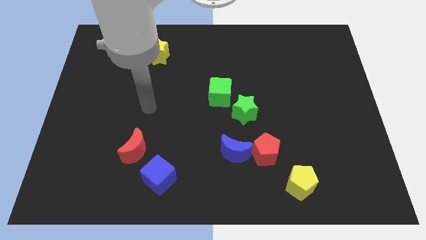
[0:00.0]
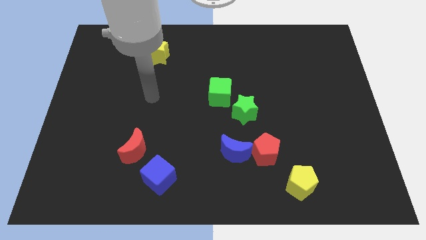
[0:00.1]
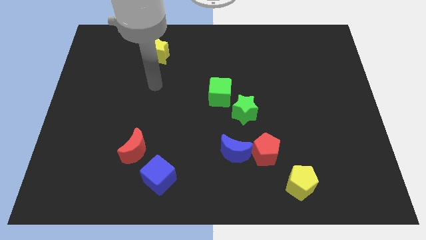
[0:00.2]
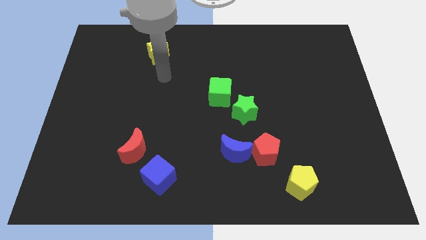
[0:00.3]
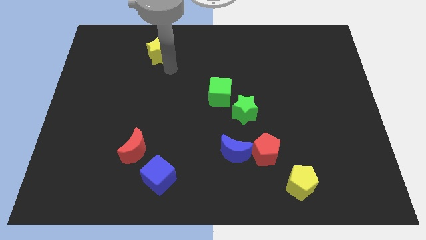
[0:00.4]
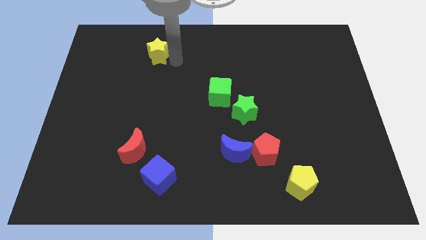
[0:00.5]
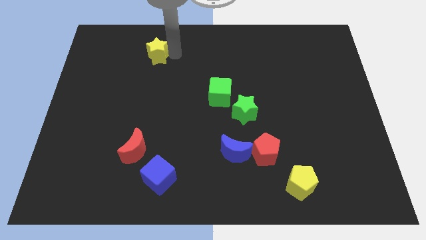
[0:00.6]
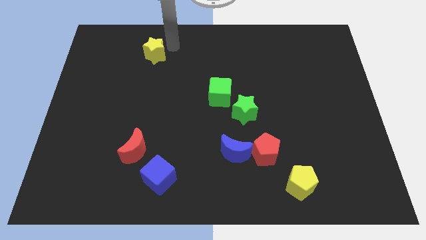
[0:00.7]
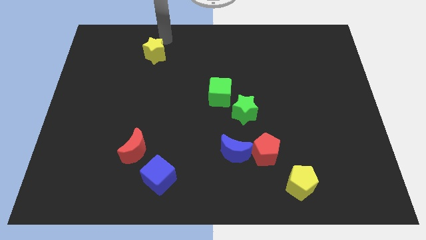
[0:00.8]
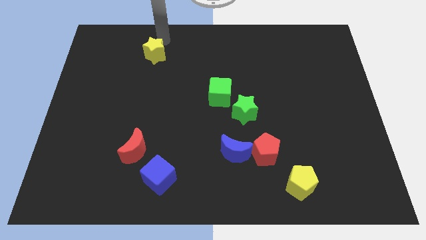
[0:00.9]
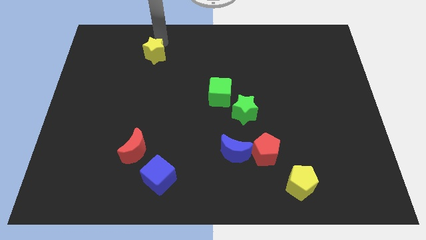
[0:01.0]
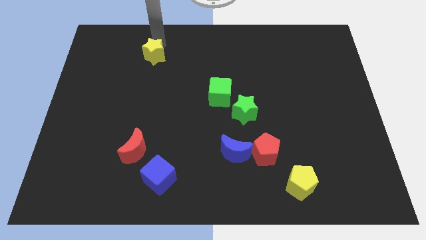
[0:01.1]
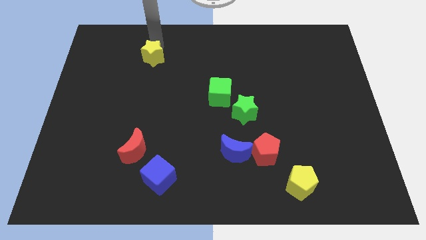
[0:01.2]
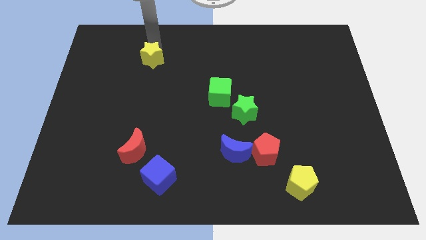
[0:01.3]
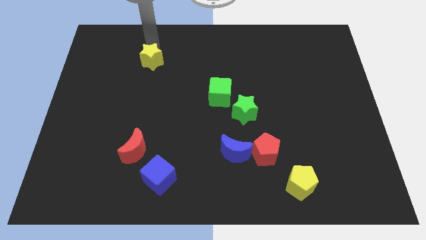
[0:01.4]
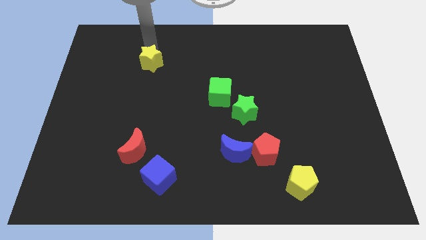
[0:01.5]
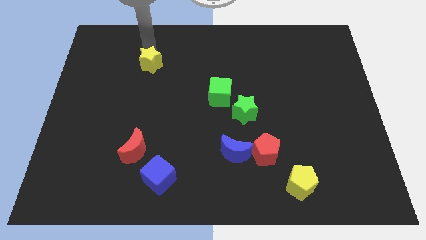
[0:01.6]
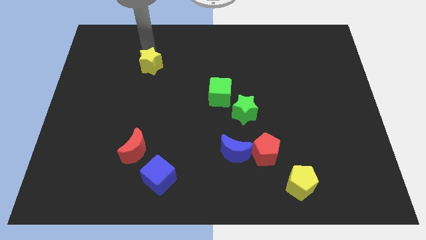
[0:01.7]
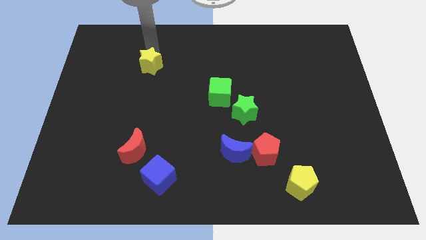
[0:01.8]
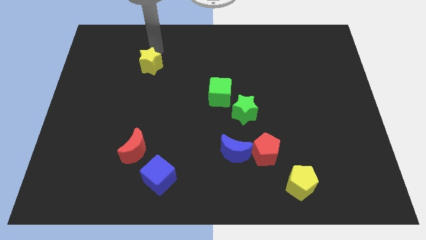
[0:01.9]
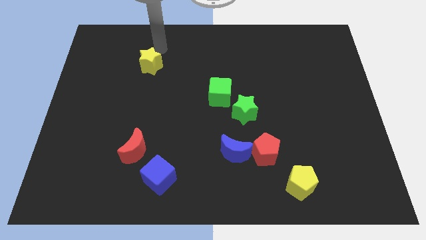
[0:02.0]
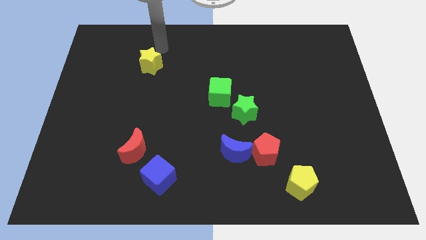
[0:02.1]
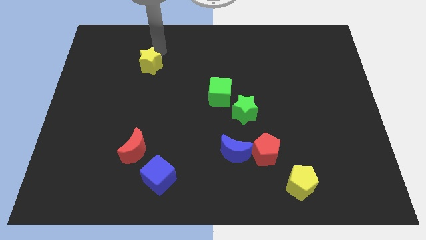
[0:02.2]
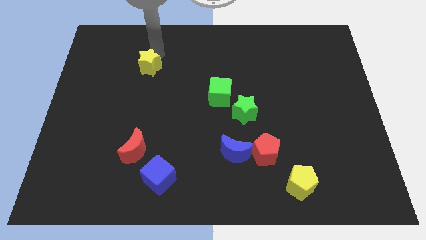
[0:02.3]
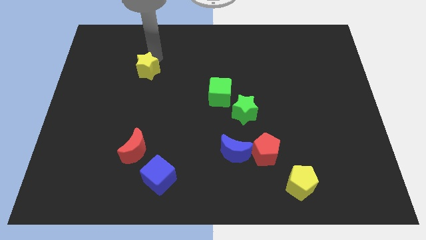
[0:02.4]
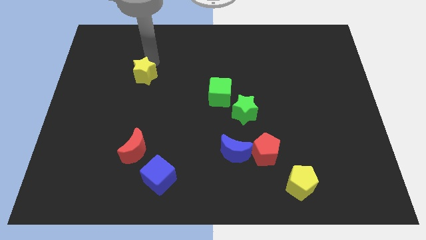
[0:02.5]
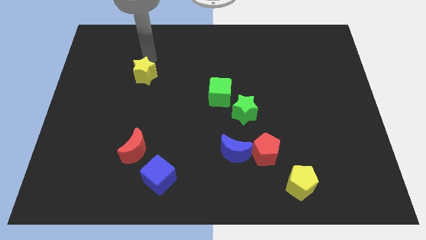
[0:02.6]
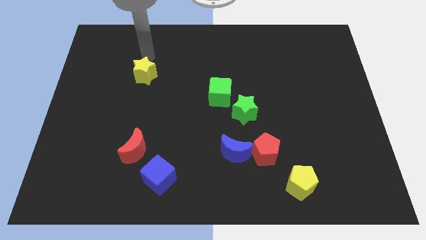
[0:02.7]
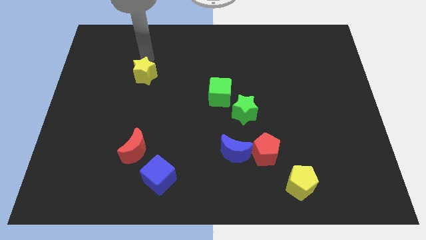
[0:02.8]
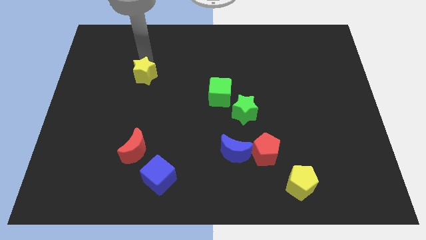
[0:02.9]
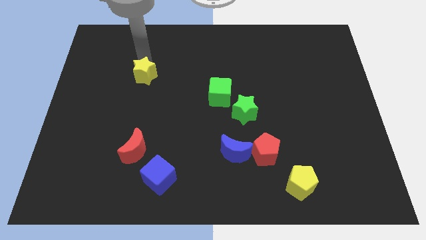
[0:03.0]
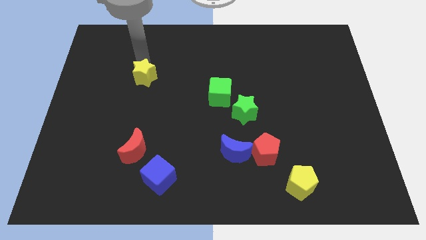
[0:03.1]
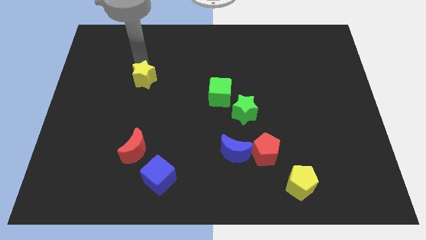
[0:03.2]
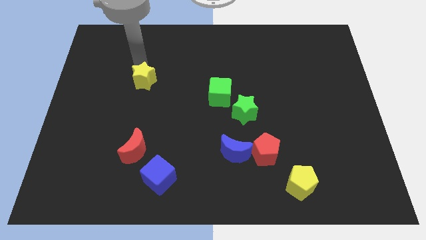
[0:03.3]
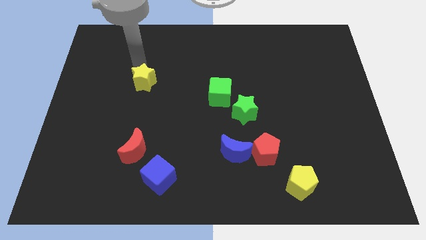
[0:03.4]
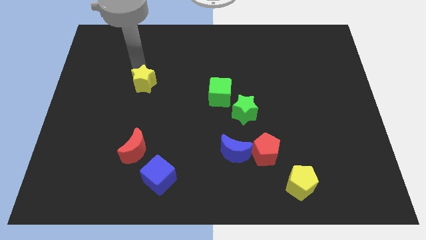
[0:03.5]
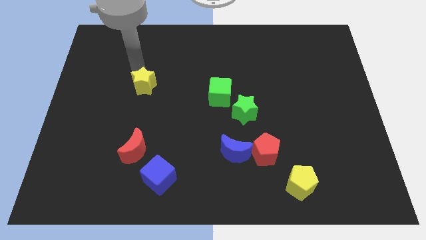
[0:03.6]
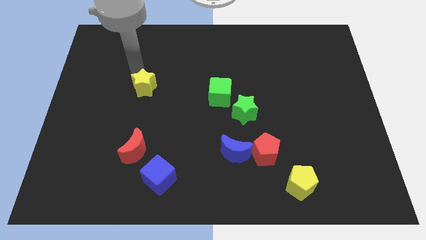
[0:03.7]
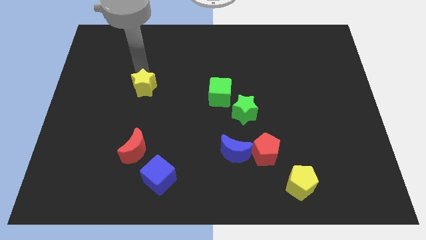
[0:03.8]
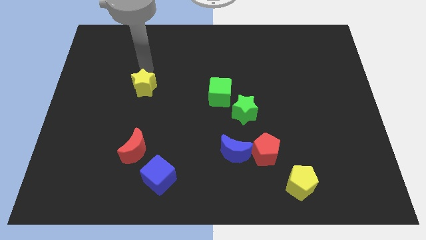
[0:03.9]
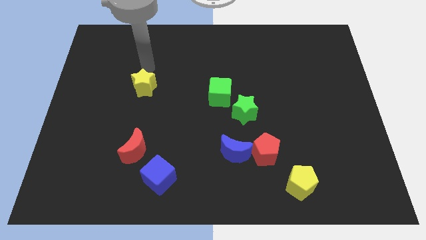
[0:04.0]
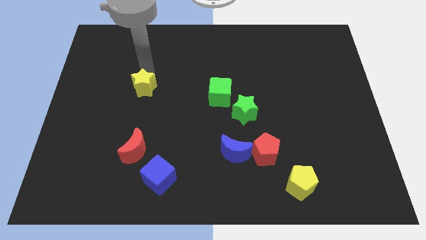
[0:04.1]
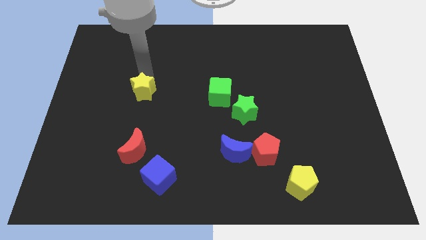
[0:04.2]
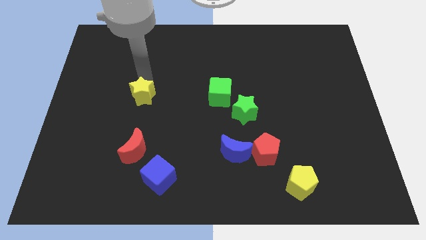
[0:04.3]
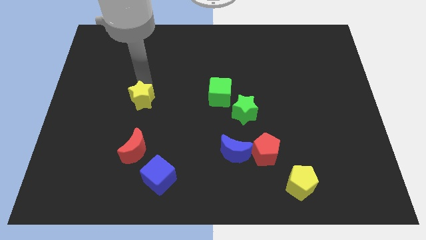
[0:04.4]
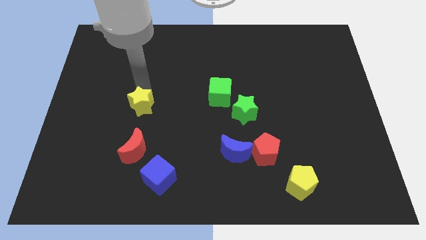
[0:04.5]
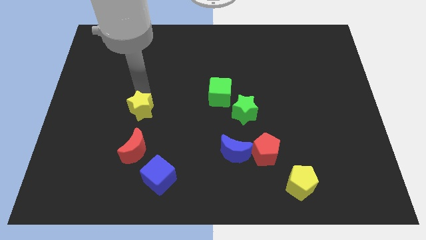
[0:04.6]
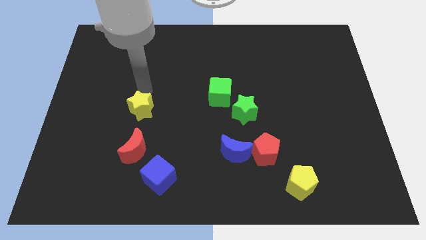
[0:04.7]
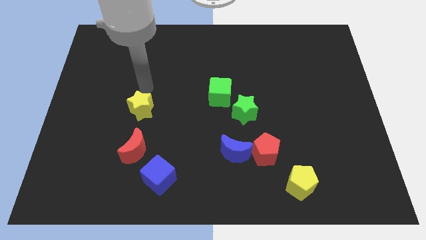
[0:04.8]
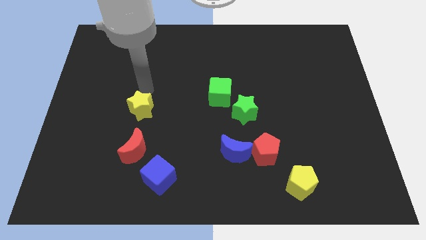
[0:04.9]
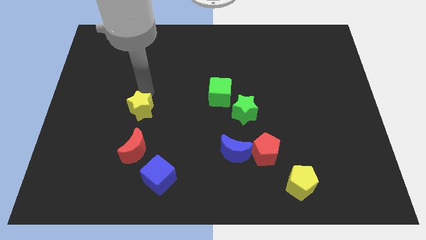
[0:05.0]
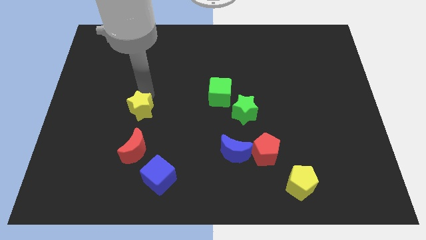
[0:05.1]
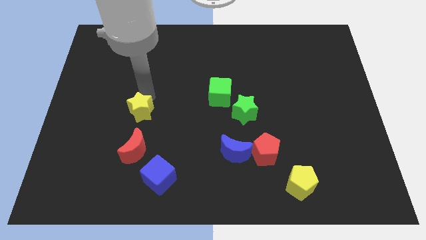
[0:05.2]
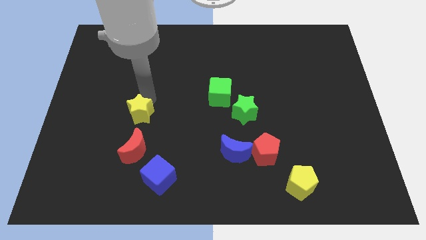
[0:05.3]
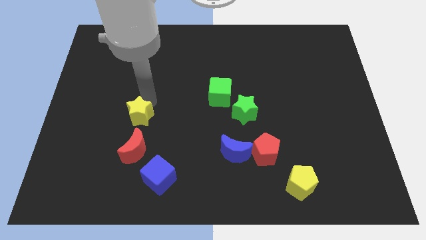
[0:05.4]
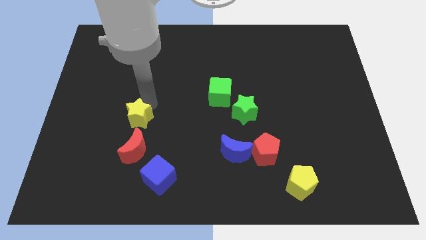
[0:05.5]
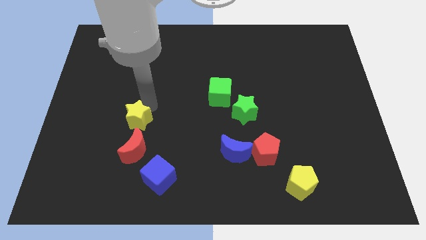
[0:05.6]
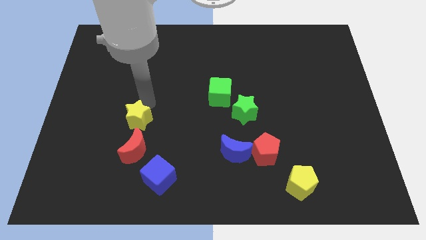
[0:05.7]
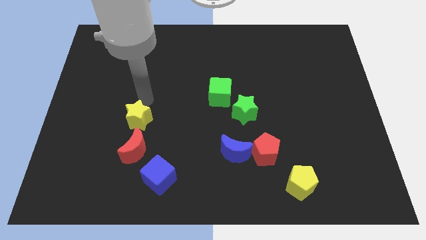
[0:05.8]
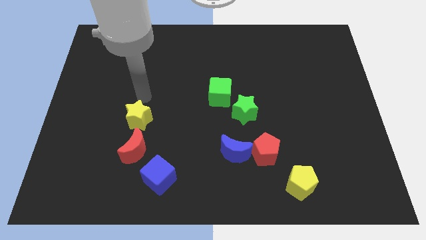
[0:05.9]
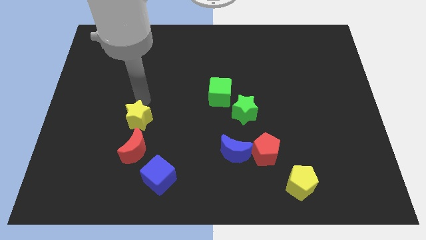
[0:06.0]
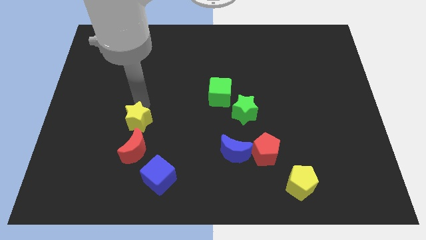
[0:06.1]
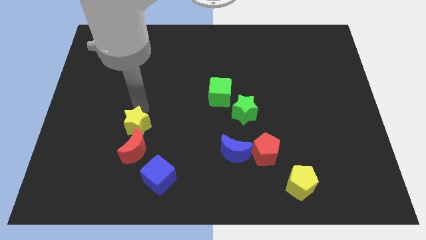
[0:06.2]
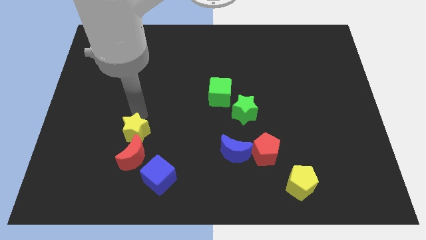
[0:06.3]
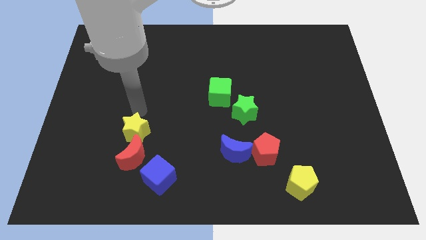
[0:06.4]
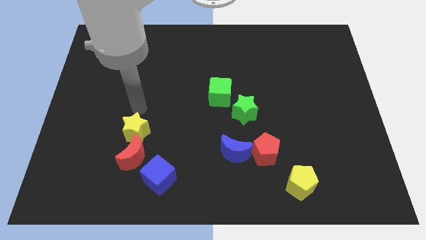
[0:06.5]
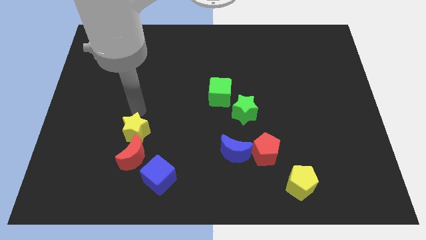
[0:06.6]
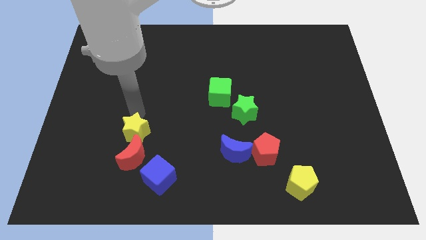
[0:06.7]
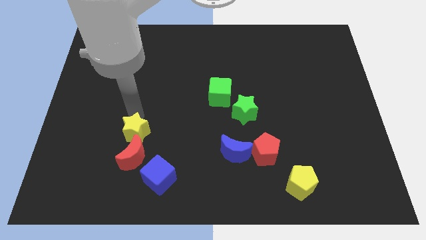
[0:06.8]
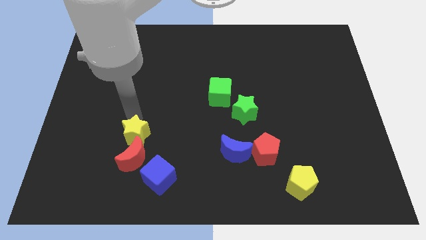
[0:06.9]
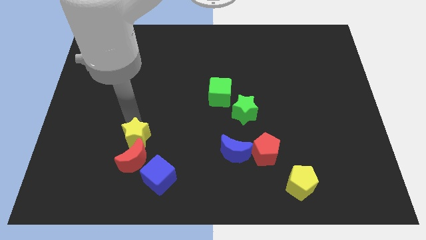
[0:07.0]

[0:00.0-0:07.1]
slide the yellow star next to the red moon

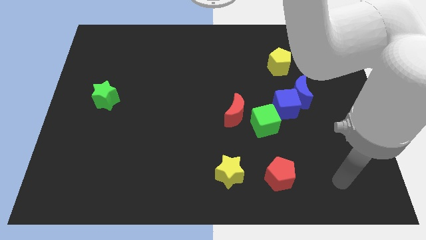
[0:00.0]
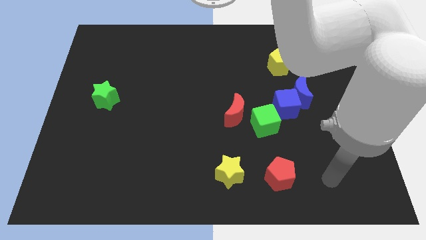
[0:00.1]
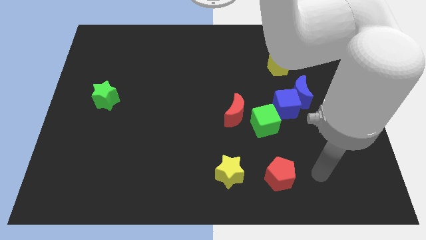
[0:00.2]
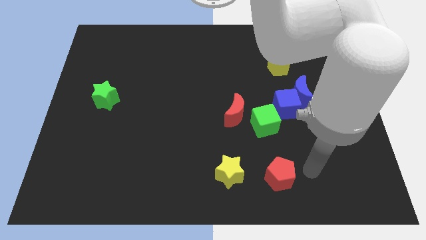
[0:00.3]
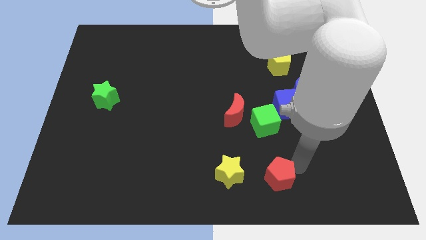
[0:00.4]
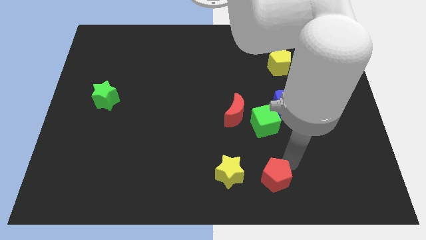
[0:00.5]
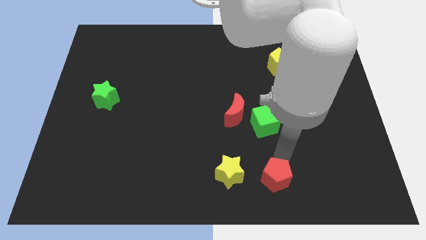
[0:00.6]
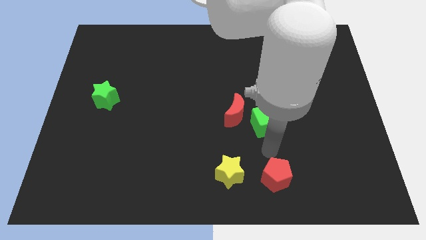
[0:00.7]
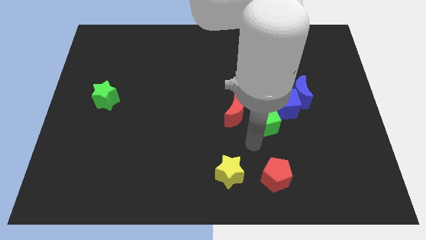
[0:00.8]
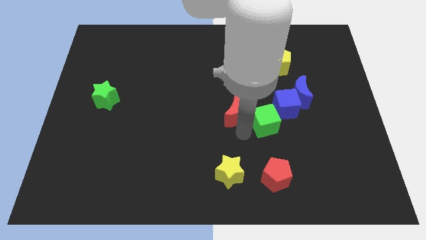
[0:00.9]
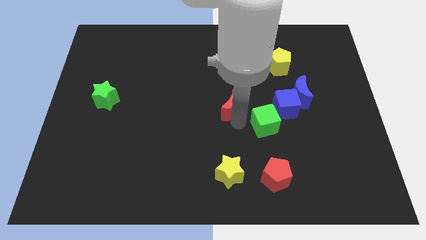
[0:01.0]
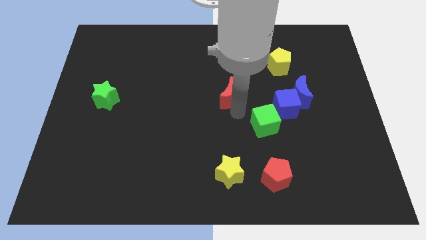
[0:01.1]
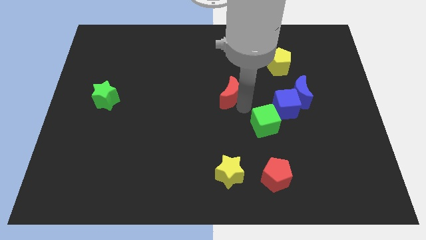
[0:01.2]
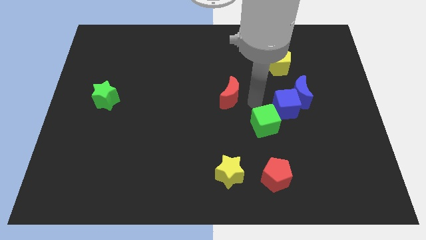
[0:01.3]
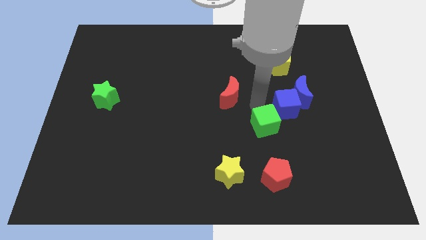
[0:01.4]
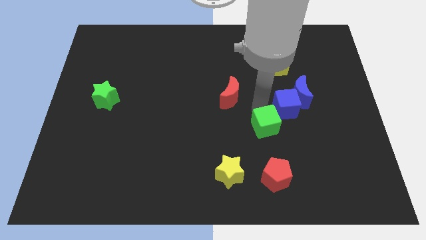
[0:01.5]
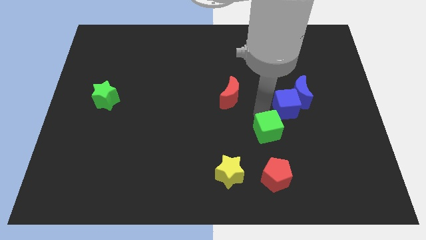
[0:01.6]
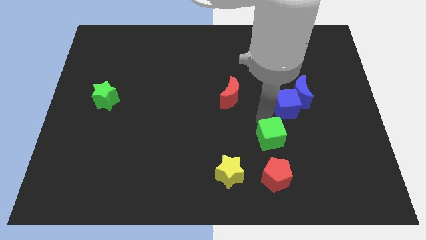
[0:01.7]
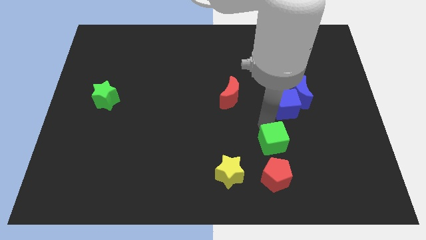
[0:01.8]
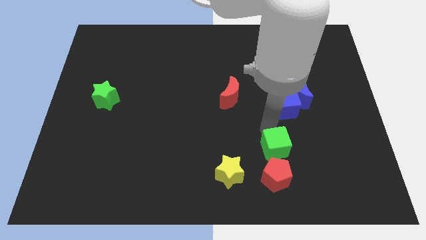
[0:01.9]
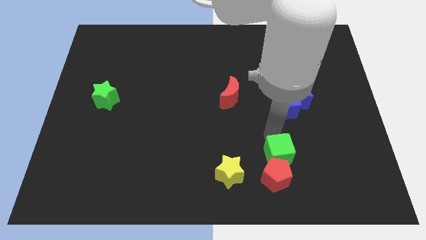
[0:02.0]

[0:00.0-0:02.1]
slide the green cube close to the red pentagon
